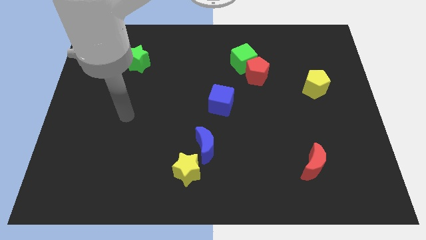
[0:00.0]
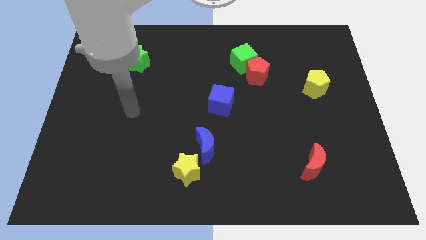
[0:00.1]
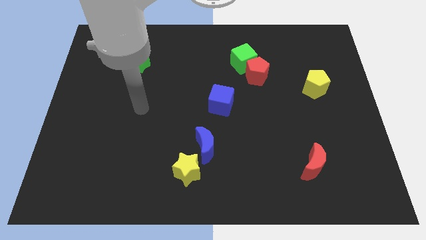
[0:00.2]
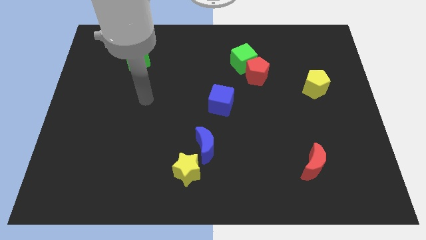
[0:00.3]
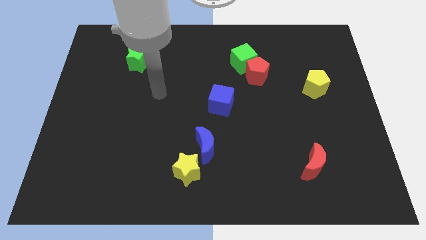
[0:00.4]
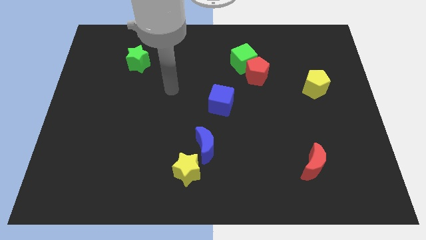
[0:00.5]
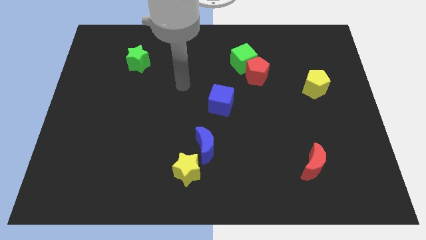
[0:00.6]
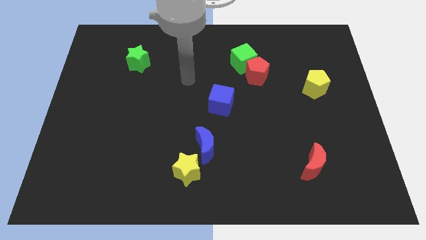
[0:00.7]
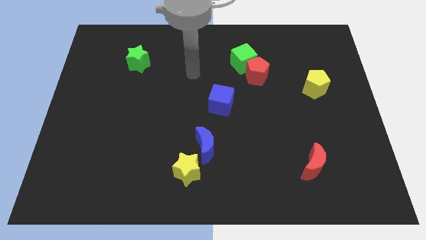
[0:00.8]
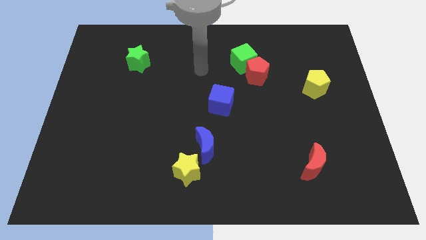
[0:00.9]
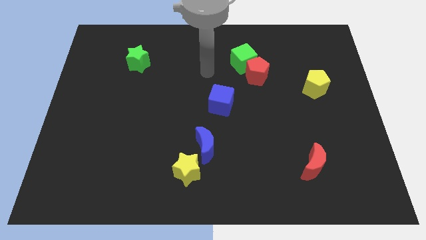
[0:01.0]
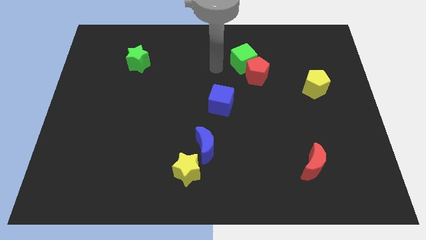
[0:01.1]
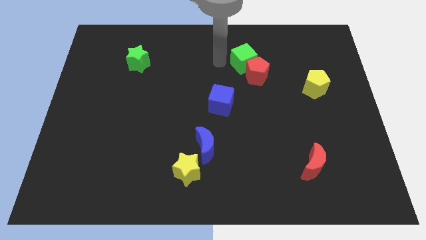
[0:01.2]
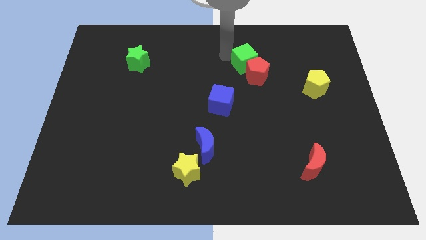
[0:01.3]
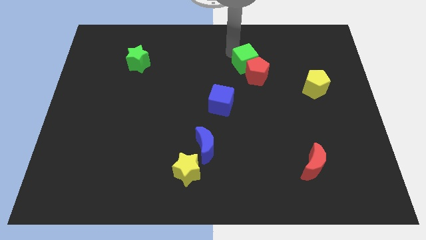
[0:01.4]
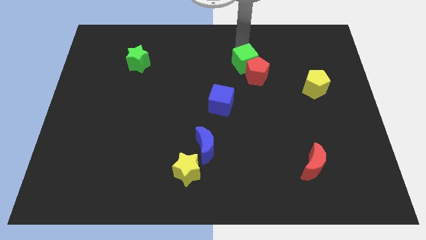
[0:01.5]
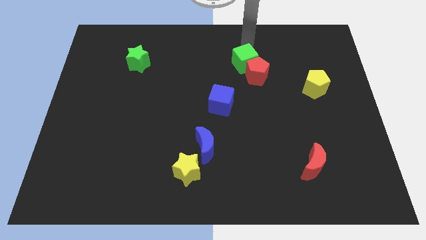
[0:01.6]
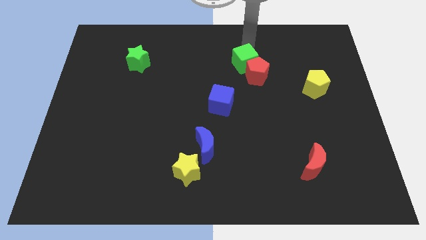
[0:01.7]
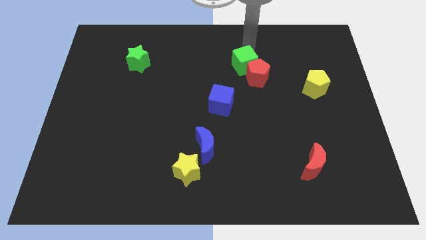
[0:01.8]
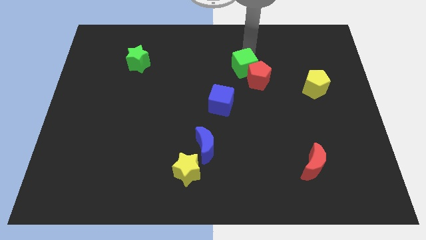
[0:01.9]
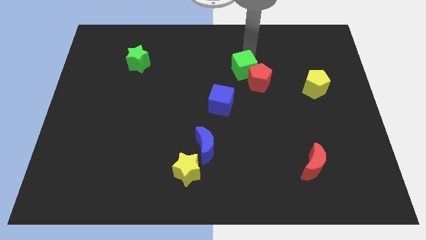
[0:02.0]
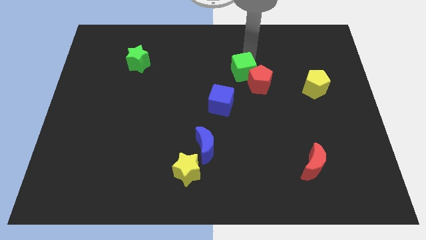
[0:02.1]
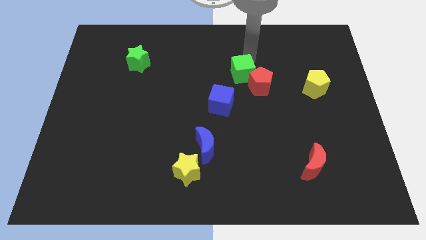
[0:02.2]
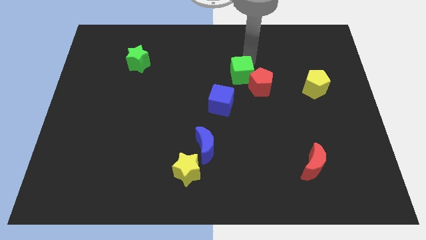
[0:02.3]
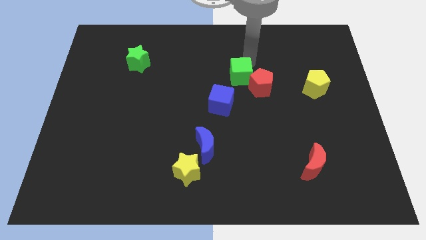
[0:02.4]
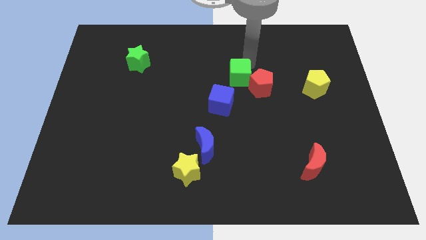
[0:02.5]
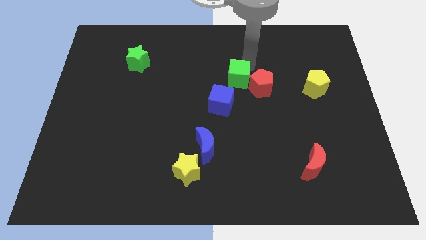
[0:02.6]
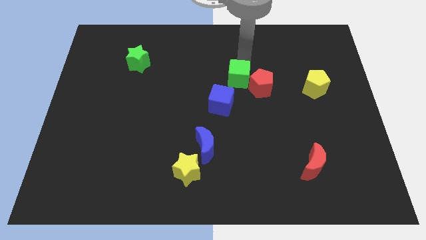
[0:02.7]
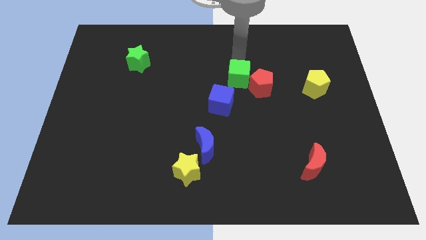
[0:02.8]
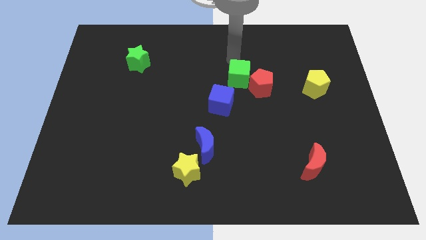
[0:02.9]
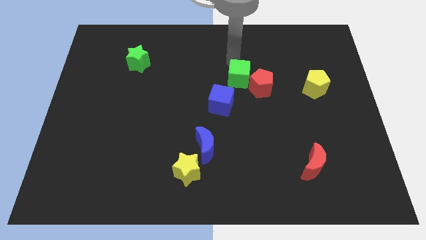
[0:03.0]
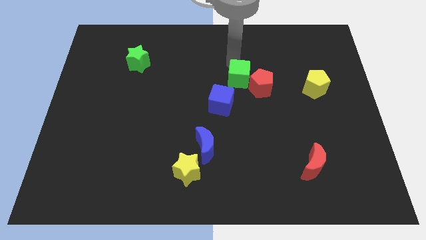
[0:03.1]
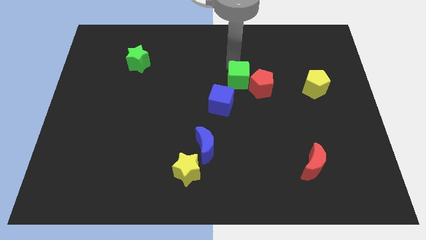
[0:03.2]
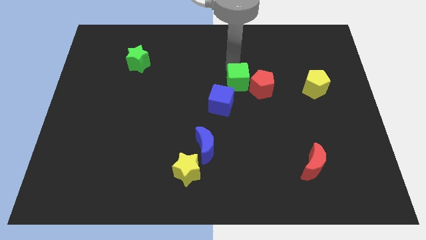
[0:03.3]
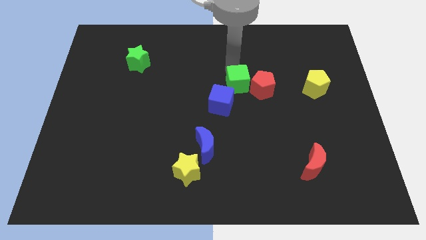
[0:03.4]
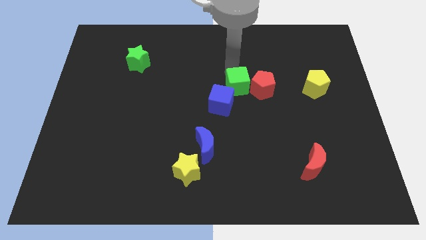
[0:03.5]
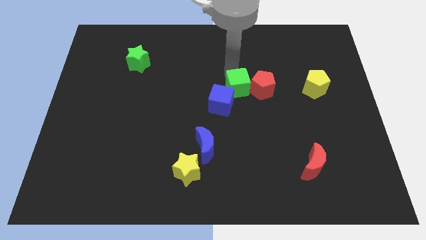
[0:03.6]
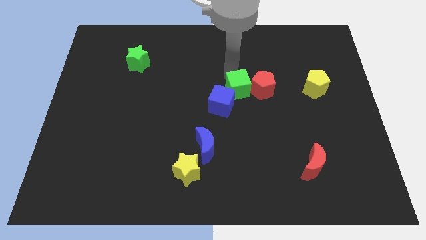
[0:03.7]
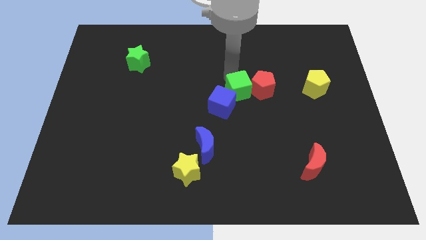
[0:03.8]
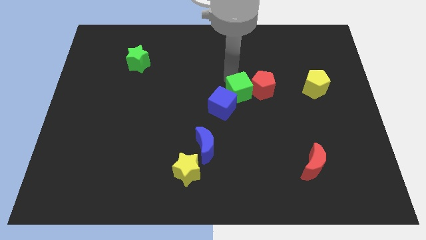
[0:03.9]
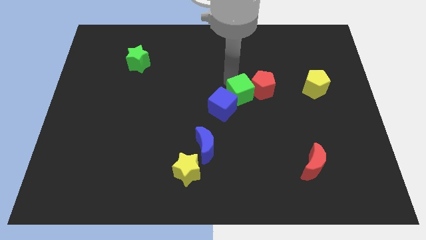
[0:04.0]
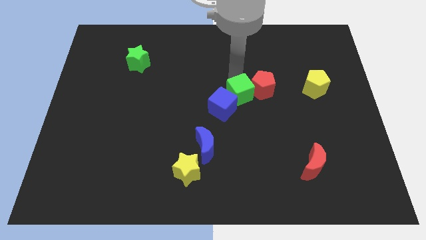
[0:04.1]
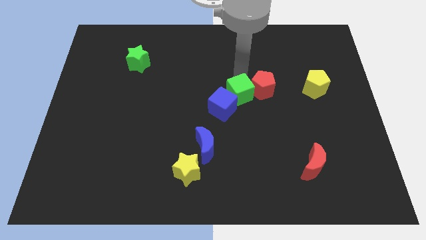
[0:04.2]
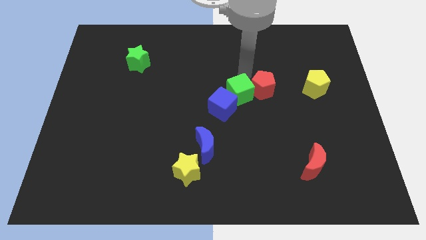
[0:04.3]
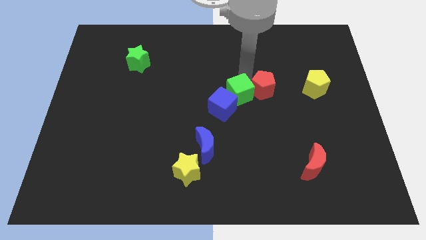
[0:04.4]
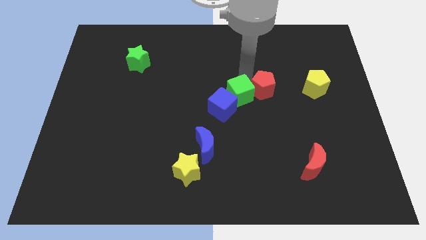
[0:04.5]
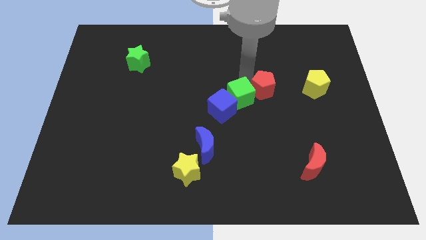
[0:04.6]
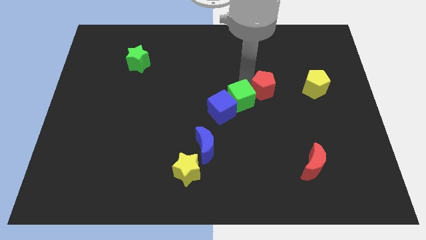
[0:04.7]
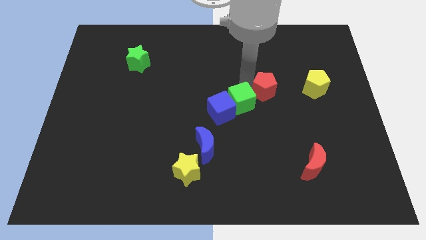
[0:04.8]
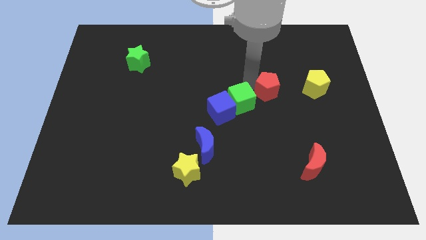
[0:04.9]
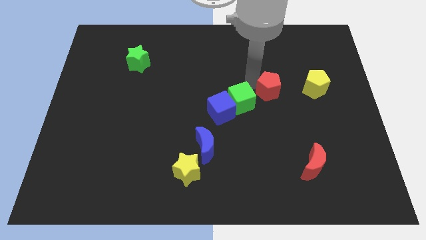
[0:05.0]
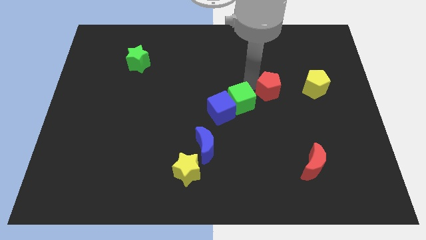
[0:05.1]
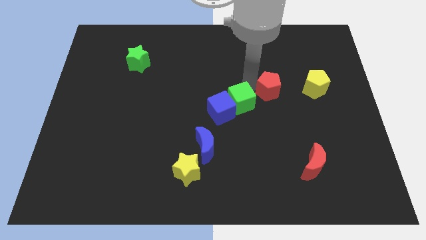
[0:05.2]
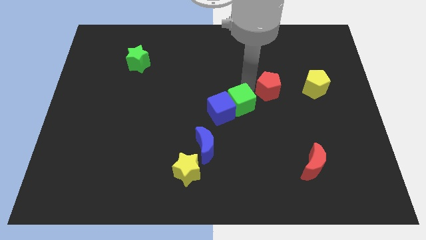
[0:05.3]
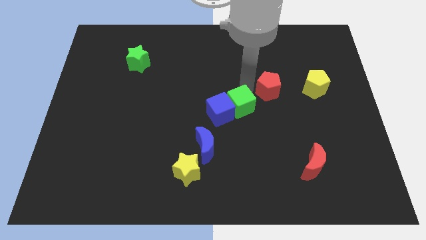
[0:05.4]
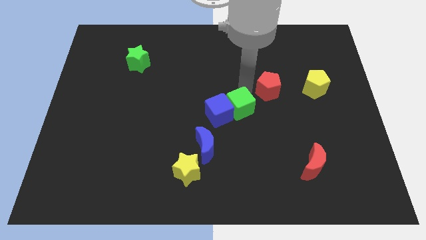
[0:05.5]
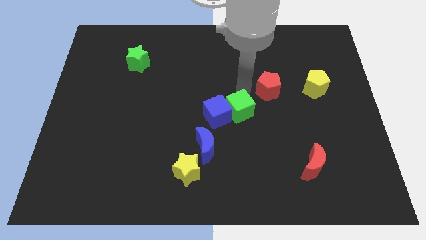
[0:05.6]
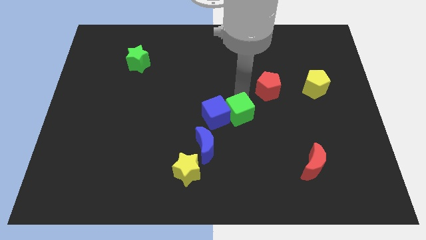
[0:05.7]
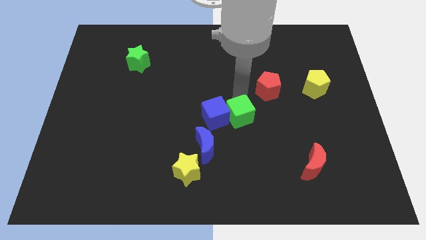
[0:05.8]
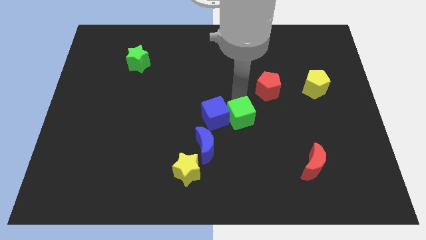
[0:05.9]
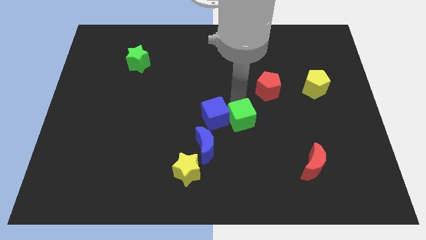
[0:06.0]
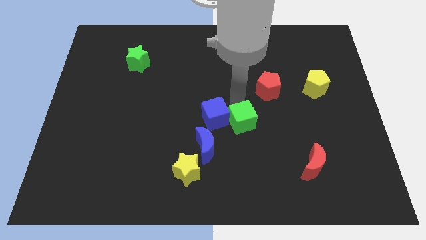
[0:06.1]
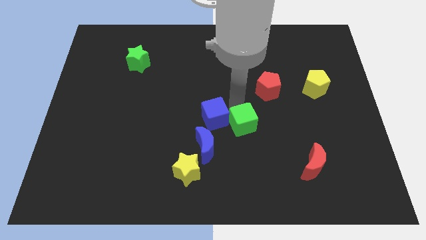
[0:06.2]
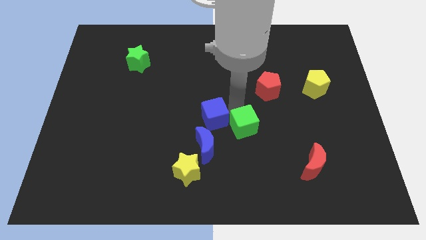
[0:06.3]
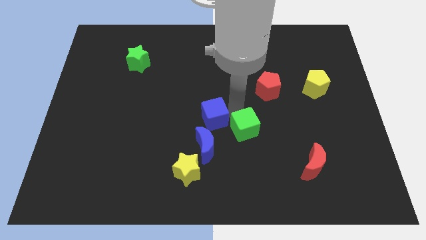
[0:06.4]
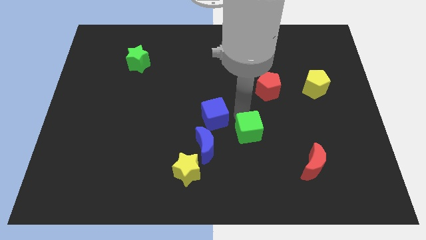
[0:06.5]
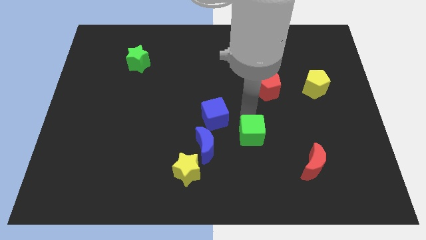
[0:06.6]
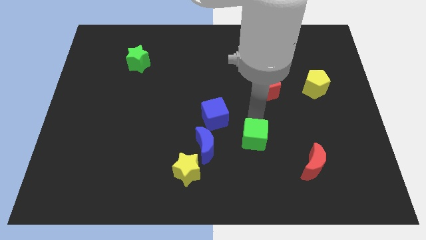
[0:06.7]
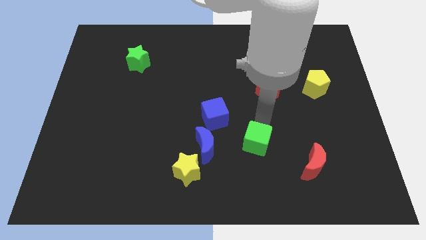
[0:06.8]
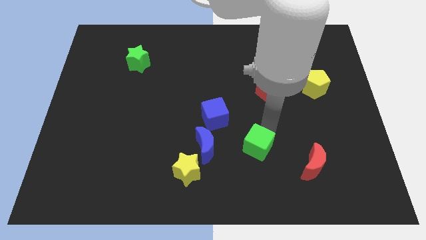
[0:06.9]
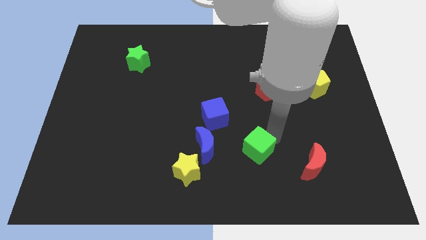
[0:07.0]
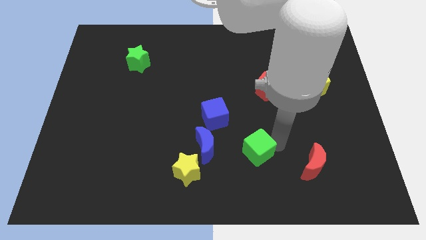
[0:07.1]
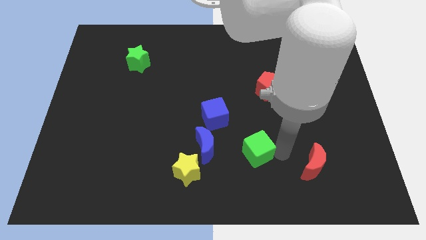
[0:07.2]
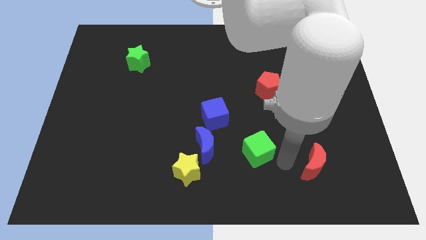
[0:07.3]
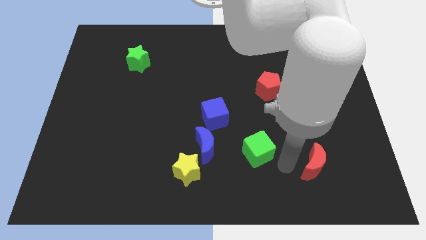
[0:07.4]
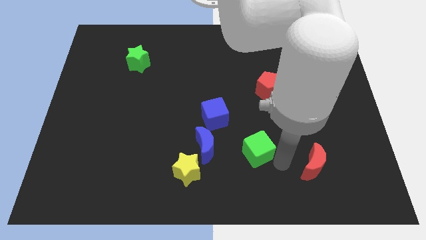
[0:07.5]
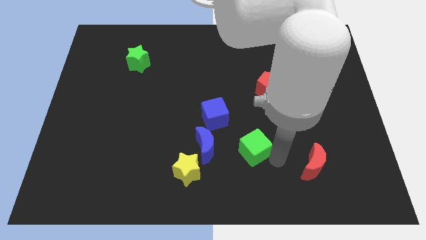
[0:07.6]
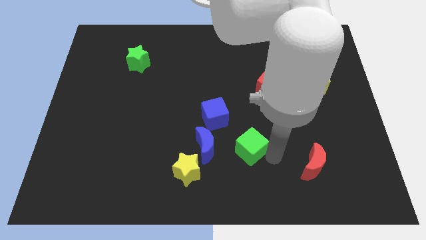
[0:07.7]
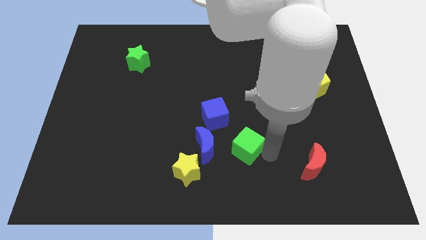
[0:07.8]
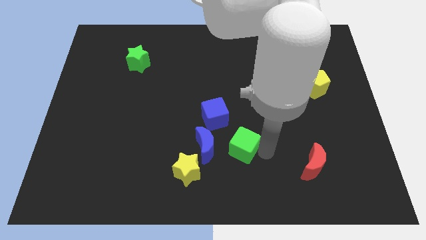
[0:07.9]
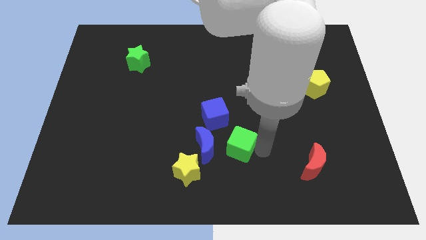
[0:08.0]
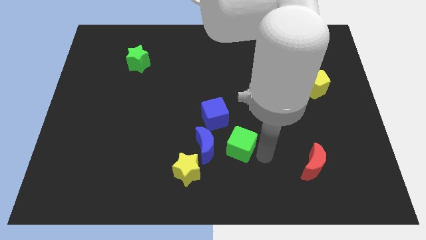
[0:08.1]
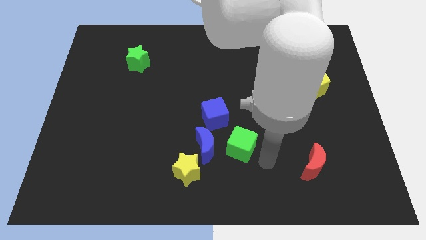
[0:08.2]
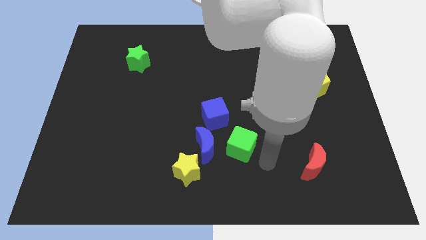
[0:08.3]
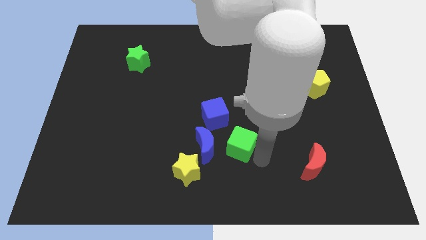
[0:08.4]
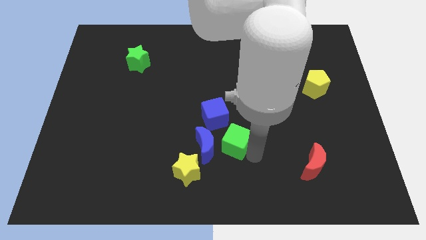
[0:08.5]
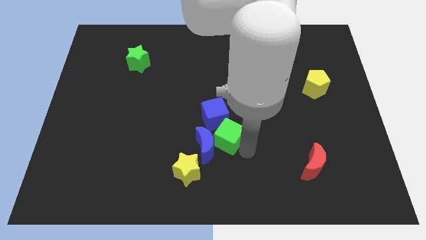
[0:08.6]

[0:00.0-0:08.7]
slide the green cube next to the blue moon
